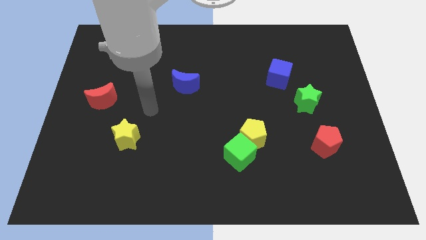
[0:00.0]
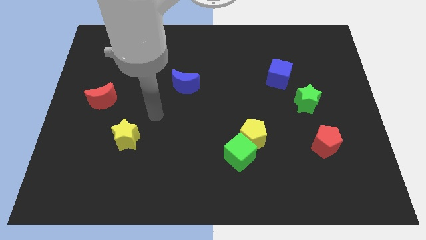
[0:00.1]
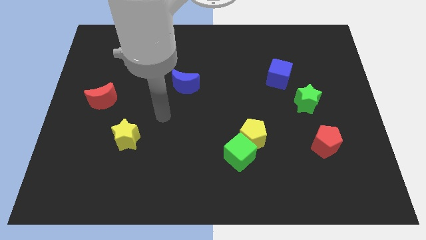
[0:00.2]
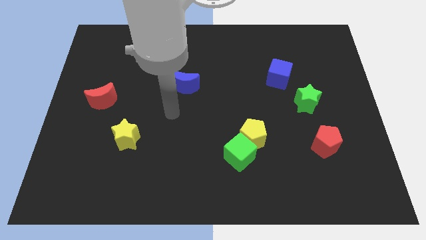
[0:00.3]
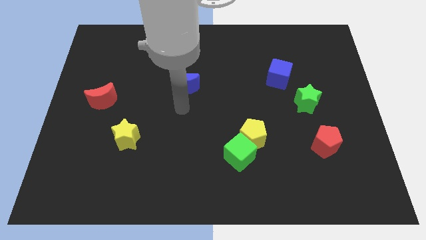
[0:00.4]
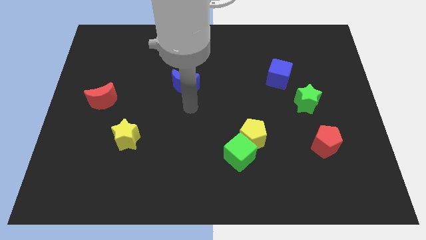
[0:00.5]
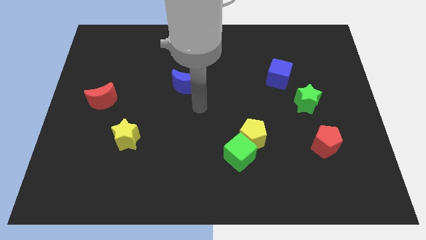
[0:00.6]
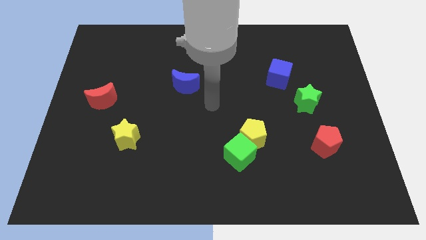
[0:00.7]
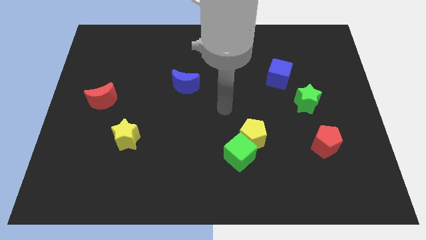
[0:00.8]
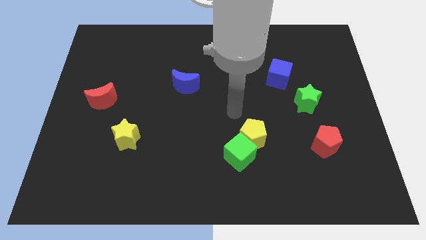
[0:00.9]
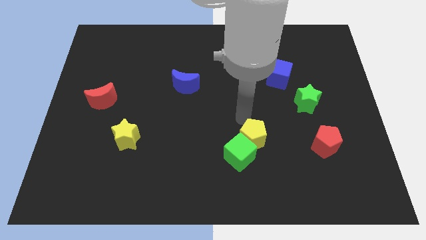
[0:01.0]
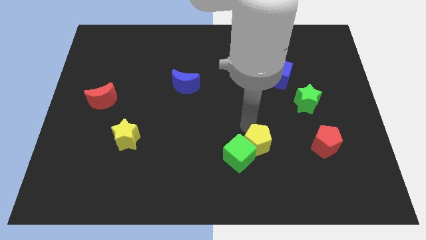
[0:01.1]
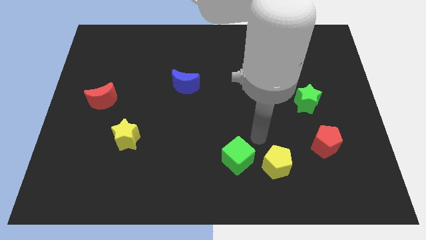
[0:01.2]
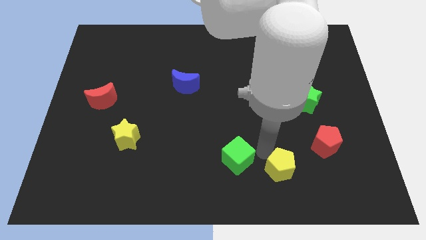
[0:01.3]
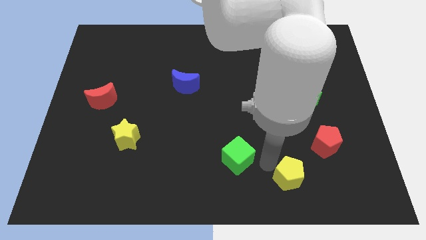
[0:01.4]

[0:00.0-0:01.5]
separate the green cube from the yellow pentagon

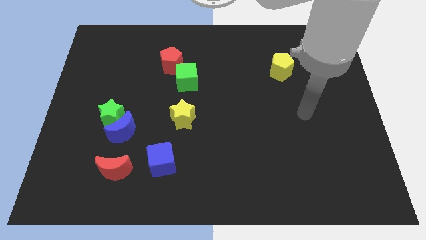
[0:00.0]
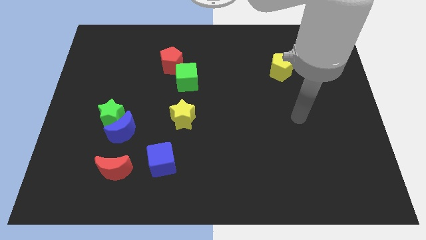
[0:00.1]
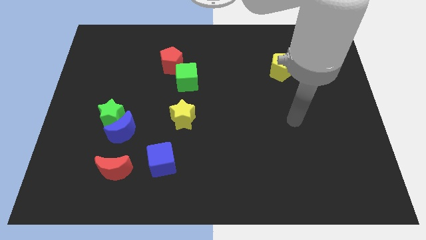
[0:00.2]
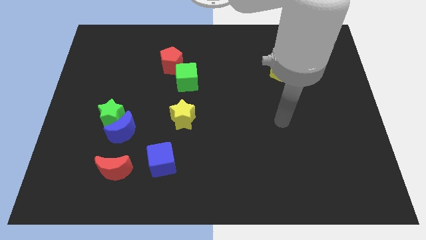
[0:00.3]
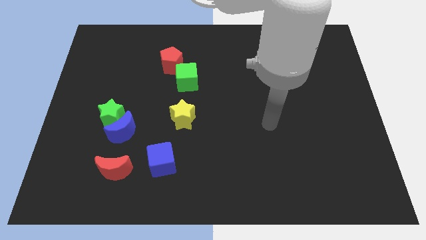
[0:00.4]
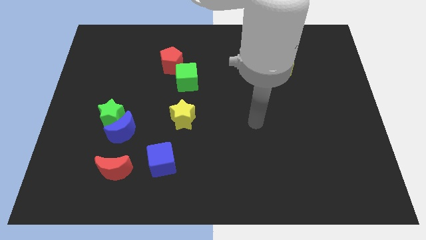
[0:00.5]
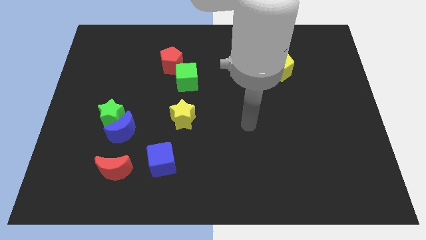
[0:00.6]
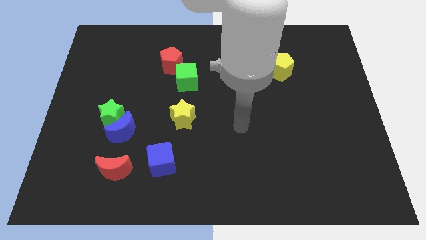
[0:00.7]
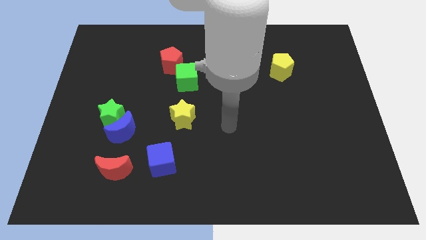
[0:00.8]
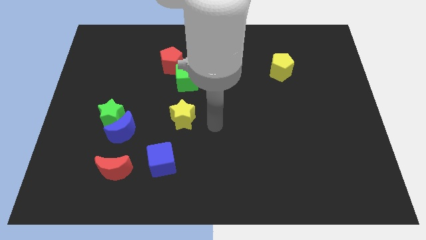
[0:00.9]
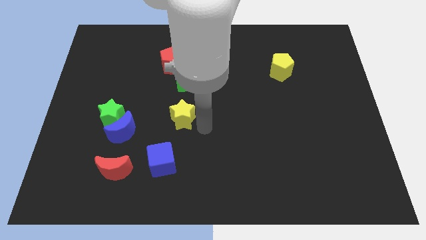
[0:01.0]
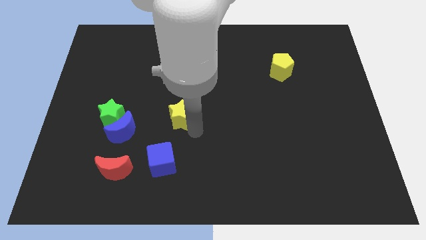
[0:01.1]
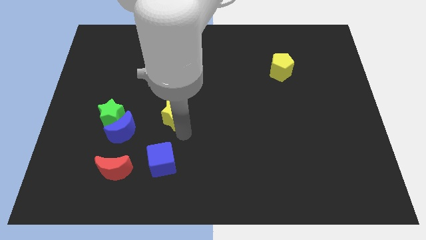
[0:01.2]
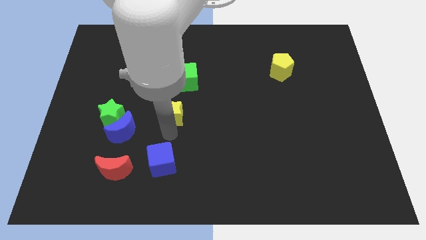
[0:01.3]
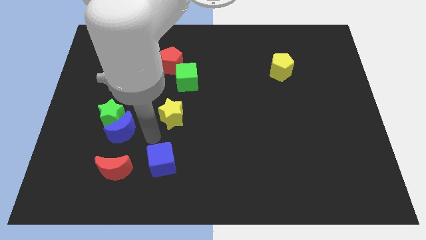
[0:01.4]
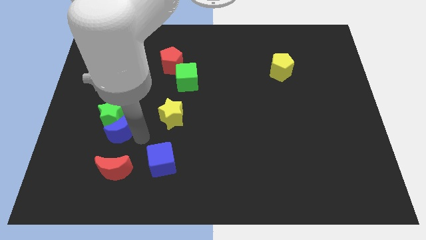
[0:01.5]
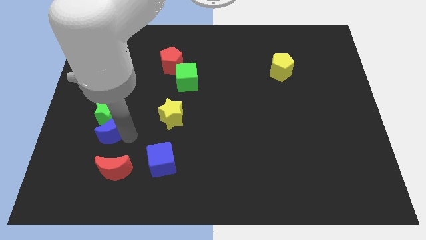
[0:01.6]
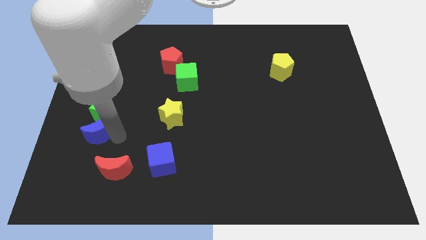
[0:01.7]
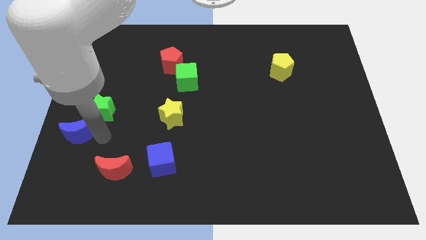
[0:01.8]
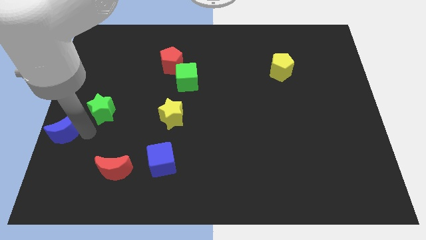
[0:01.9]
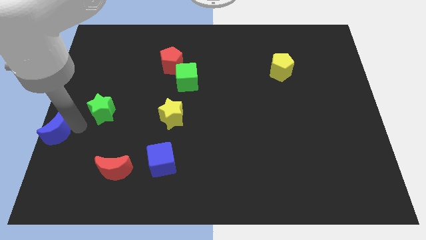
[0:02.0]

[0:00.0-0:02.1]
pull the green star apart from the blue moon

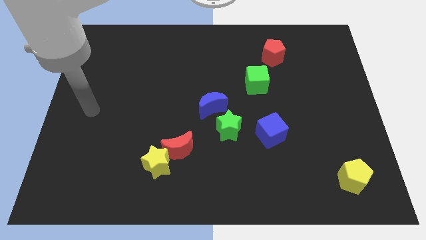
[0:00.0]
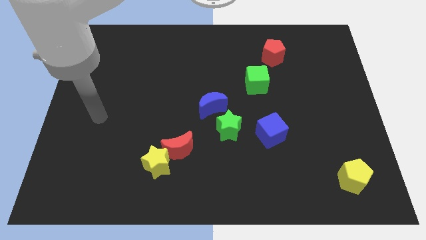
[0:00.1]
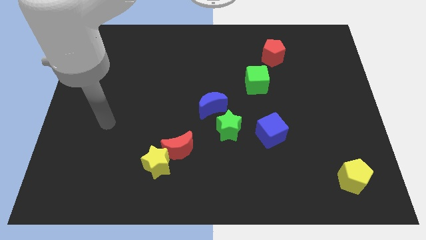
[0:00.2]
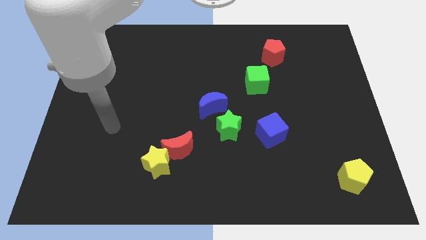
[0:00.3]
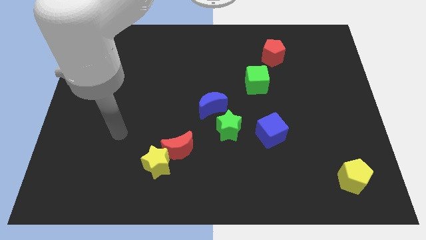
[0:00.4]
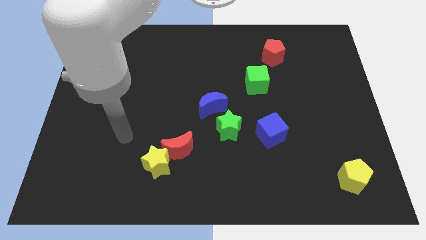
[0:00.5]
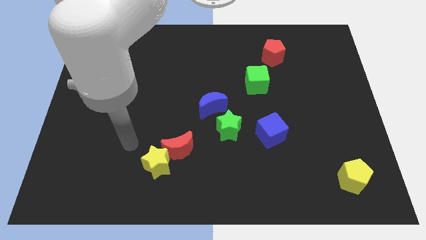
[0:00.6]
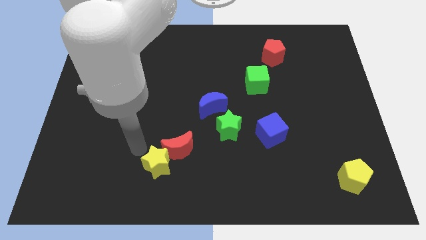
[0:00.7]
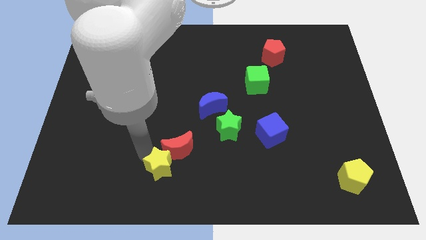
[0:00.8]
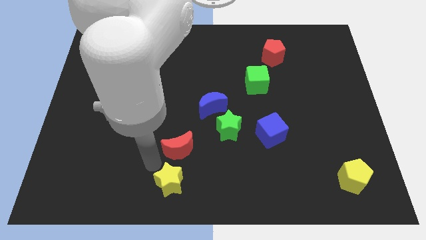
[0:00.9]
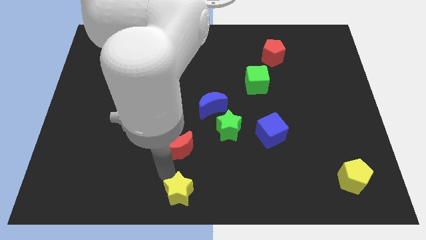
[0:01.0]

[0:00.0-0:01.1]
separate the red moon from the yellow star

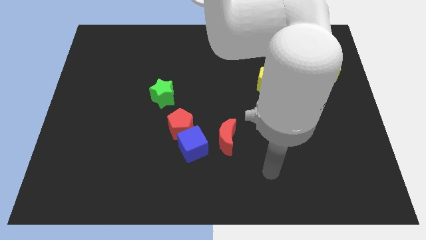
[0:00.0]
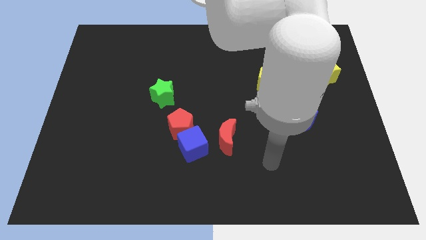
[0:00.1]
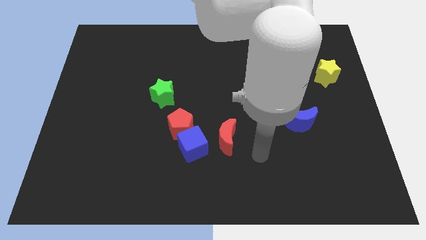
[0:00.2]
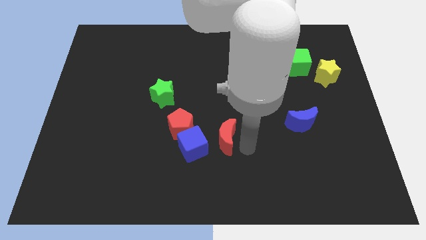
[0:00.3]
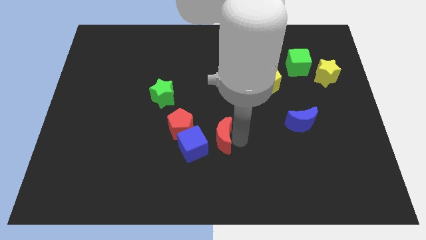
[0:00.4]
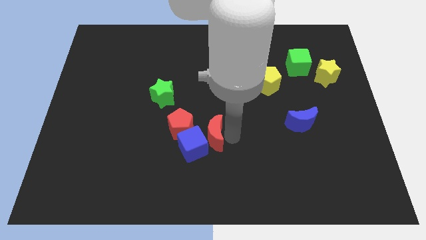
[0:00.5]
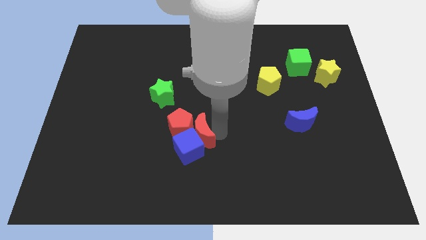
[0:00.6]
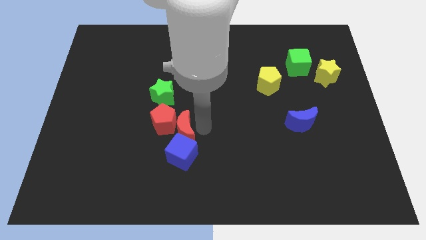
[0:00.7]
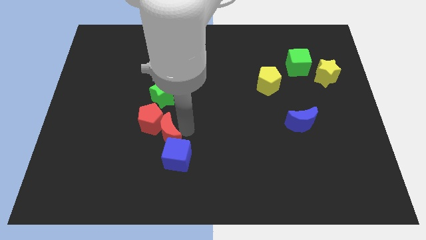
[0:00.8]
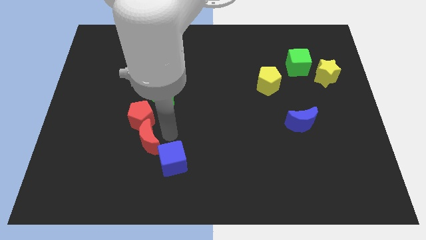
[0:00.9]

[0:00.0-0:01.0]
separate the blue cube from the red pentagon and red moon

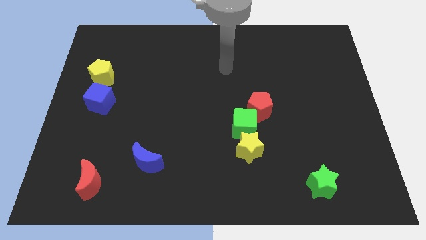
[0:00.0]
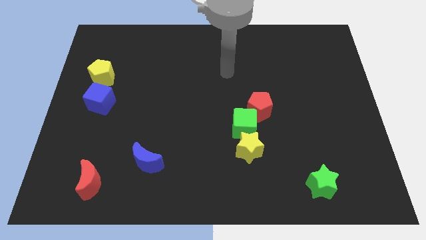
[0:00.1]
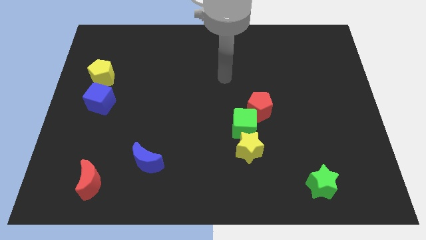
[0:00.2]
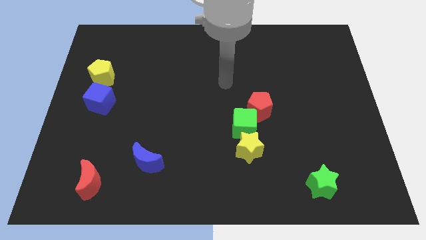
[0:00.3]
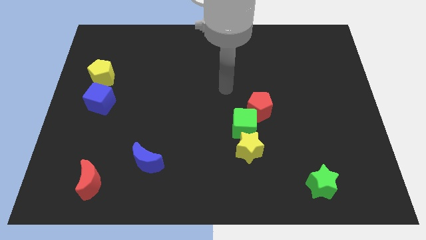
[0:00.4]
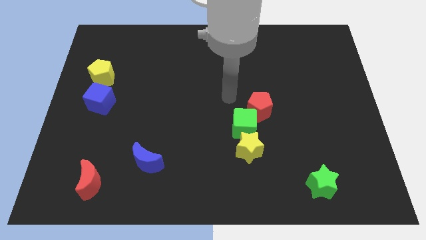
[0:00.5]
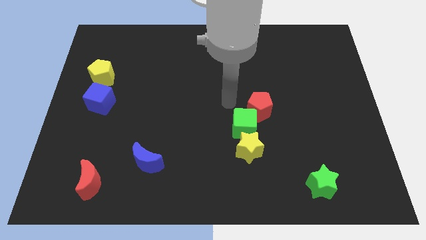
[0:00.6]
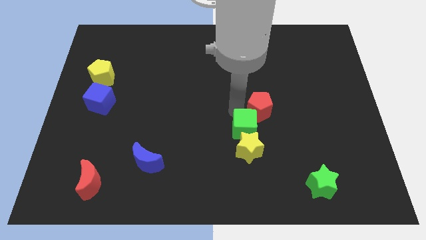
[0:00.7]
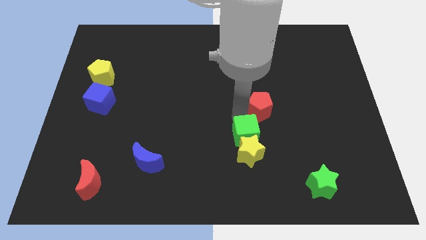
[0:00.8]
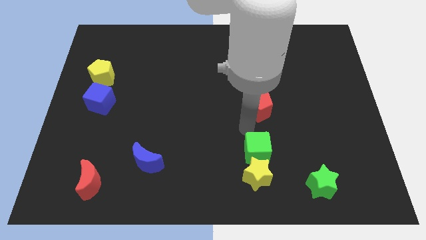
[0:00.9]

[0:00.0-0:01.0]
separate the red pentagon from the green cube

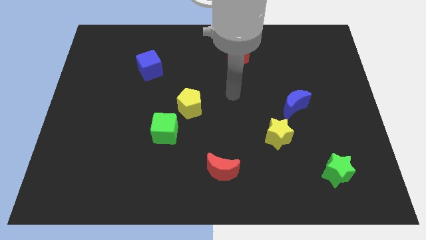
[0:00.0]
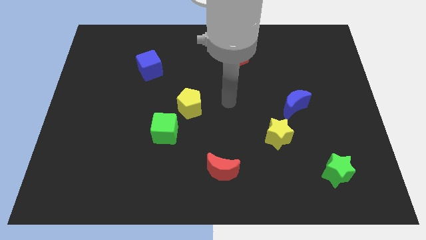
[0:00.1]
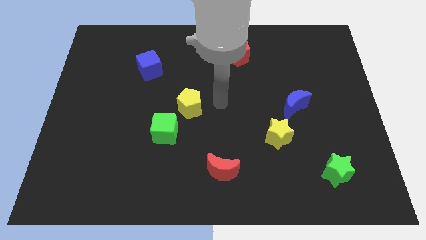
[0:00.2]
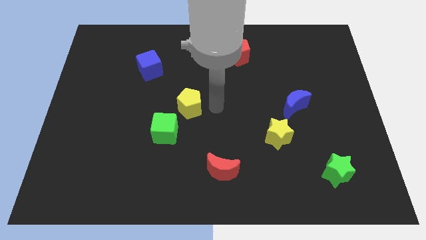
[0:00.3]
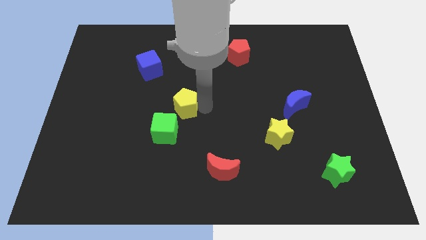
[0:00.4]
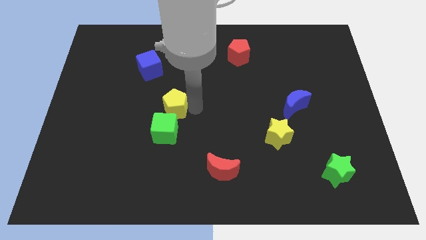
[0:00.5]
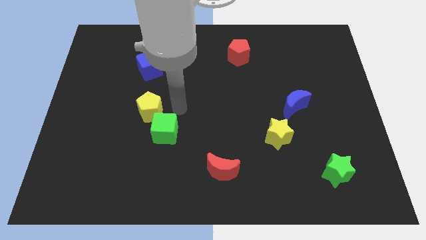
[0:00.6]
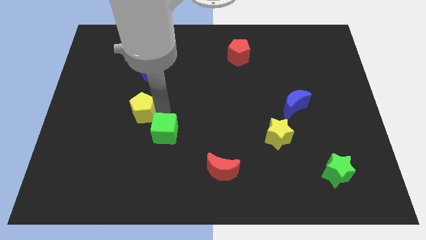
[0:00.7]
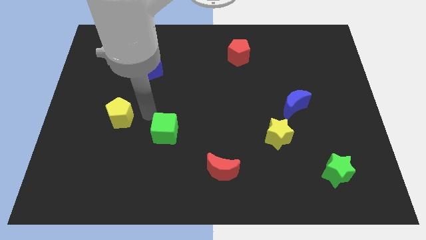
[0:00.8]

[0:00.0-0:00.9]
pull the green cube apart from the yellow pentagon

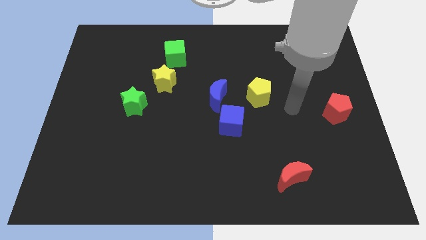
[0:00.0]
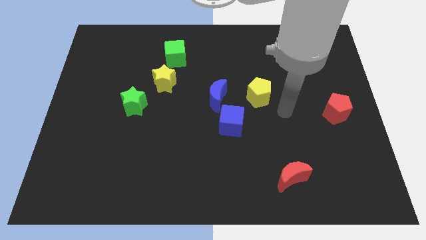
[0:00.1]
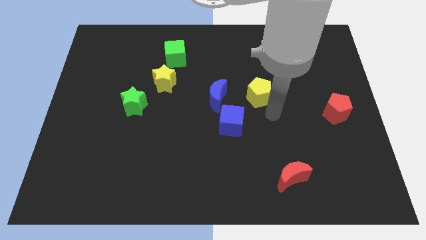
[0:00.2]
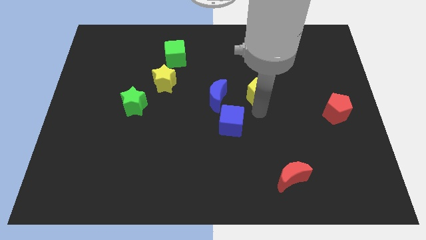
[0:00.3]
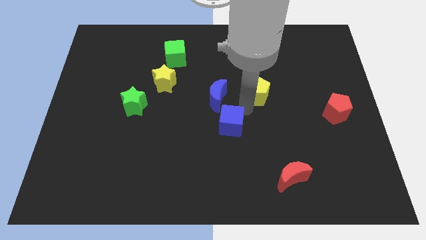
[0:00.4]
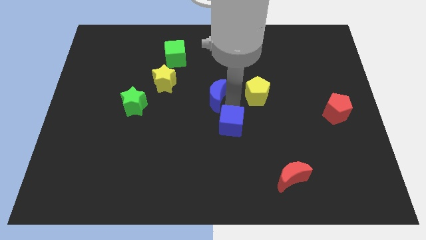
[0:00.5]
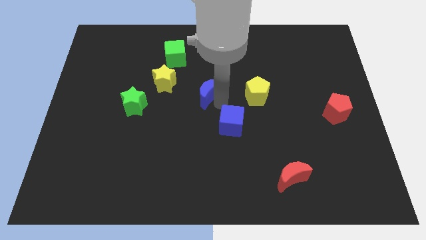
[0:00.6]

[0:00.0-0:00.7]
pull the blue cube apart from the blue moon

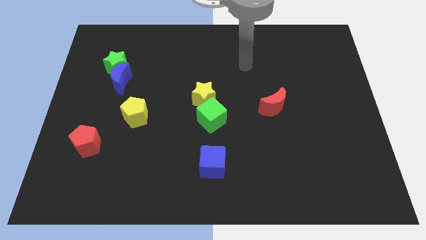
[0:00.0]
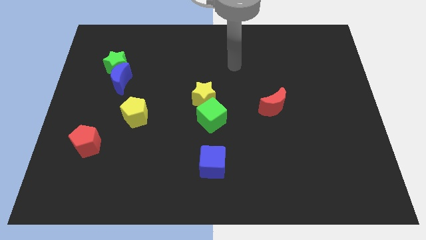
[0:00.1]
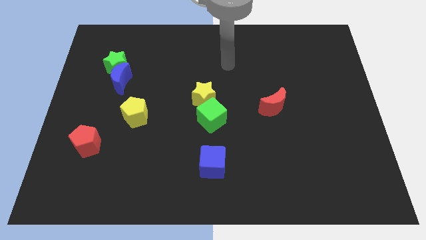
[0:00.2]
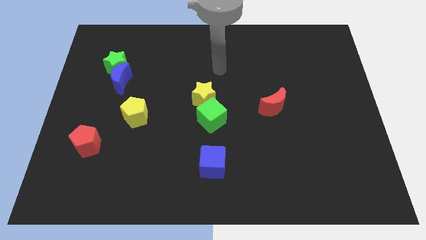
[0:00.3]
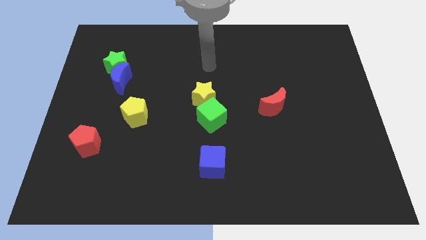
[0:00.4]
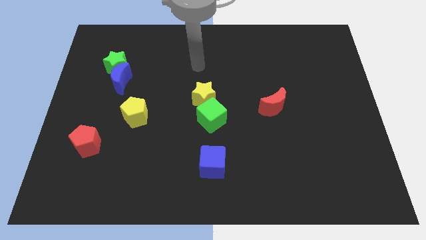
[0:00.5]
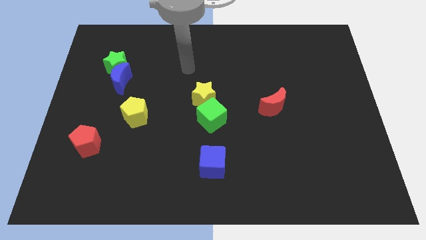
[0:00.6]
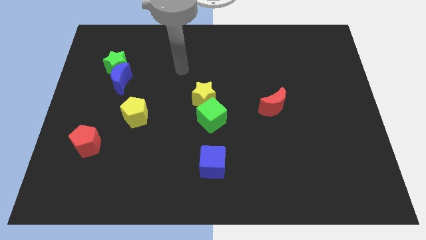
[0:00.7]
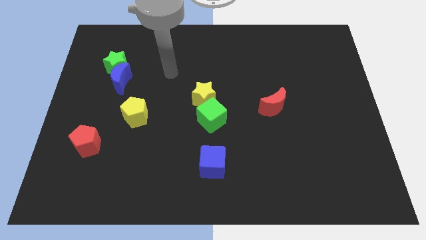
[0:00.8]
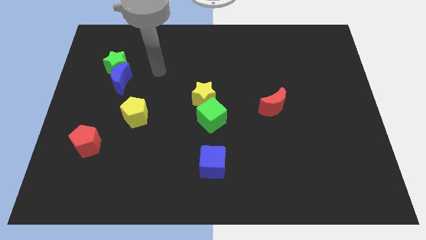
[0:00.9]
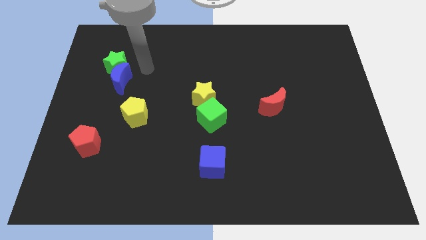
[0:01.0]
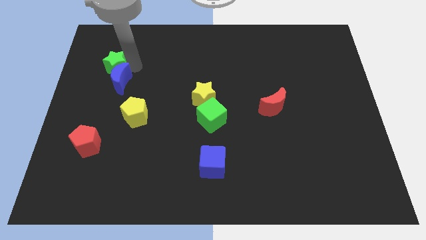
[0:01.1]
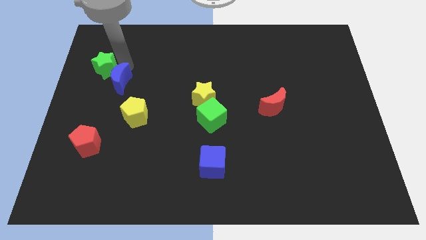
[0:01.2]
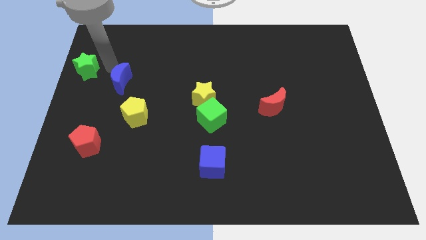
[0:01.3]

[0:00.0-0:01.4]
pull the blue moon apart from the green star
